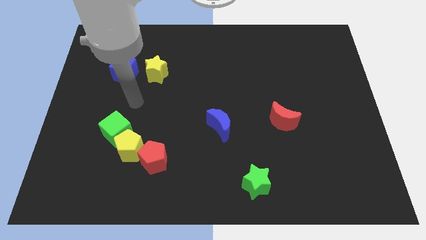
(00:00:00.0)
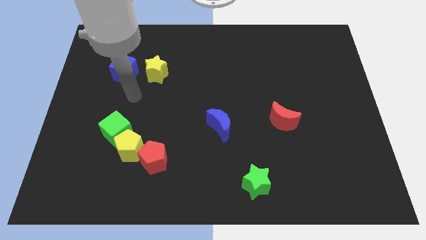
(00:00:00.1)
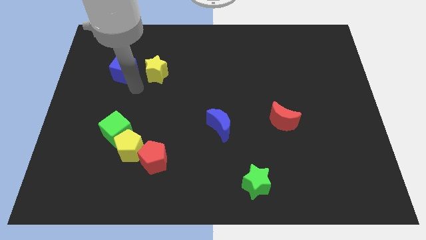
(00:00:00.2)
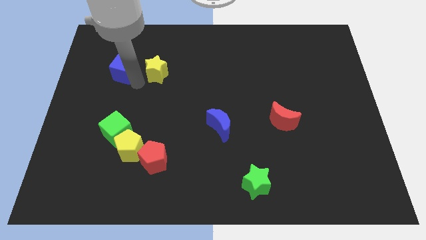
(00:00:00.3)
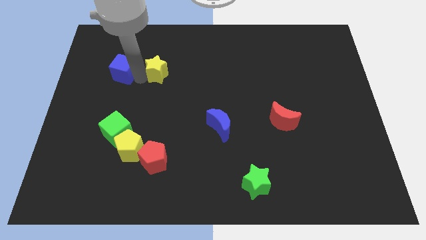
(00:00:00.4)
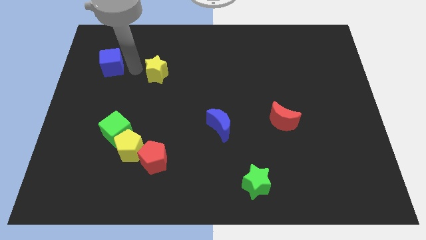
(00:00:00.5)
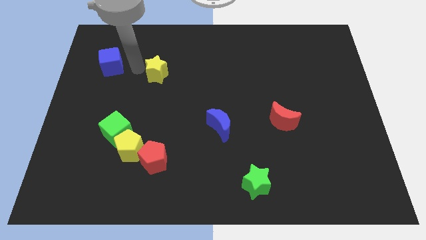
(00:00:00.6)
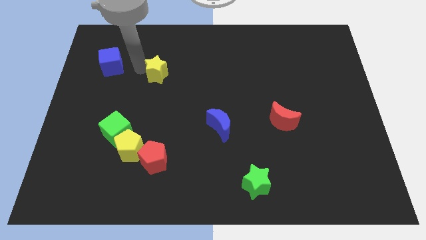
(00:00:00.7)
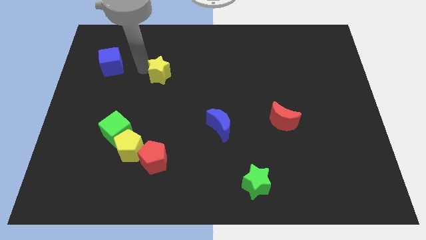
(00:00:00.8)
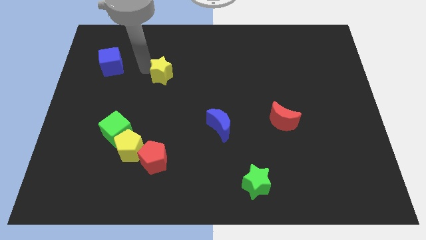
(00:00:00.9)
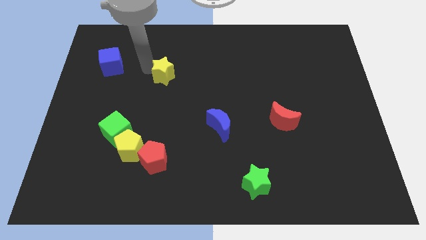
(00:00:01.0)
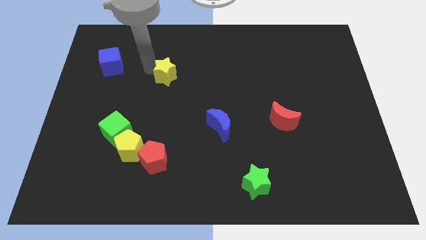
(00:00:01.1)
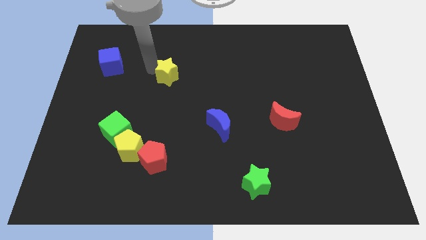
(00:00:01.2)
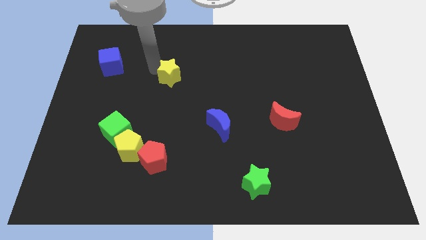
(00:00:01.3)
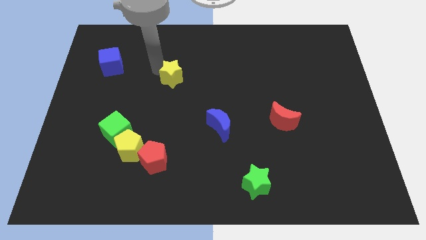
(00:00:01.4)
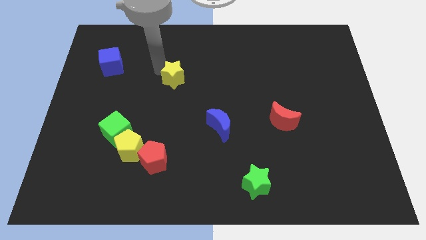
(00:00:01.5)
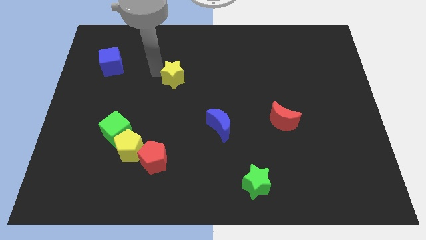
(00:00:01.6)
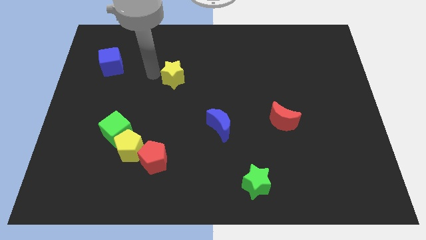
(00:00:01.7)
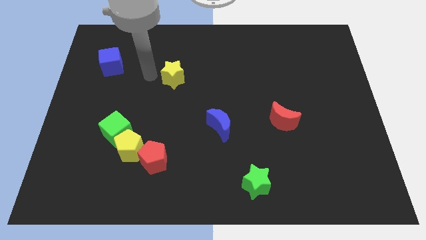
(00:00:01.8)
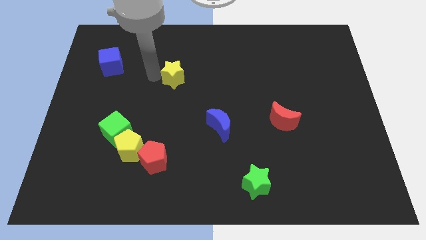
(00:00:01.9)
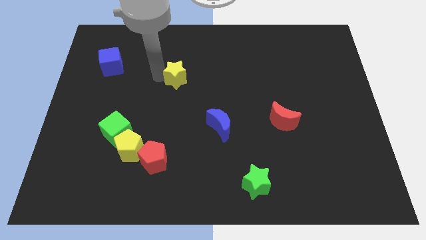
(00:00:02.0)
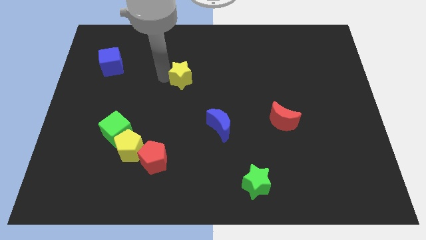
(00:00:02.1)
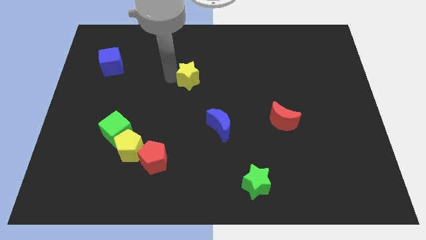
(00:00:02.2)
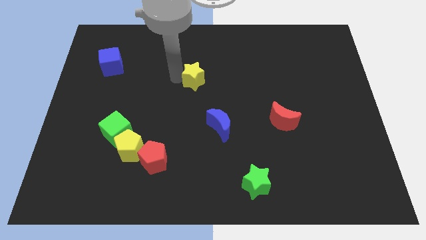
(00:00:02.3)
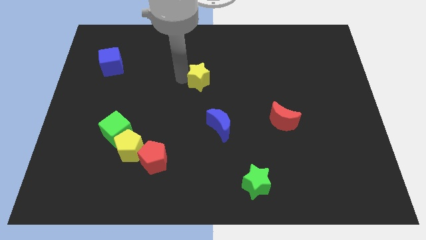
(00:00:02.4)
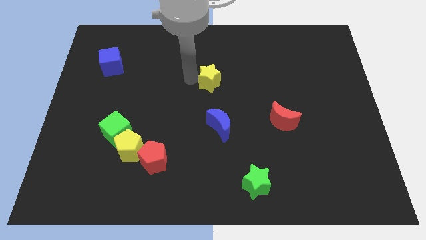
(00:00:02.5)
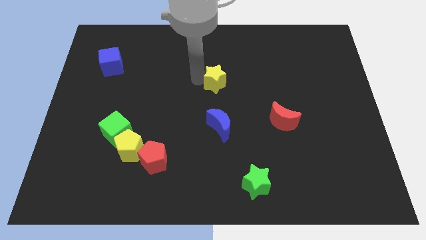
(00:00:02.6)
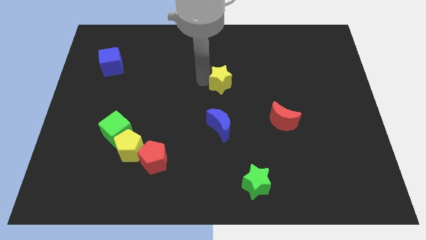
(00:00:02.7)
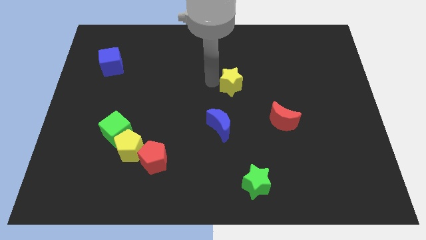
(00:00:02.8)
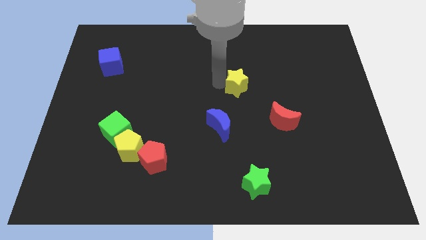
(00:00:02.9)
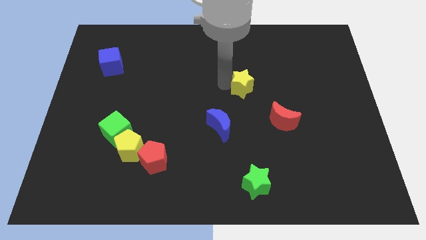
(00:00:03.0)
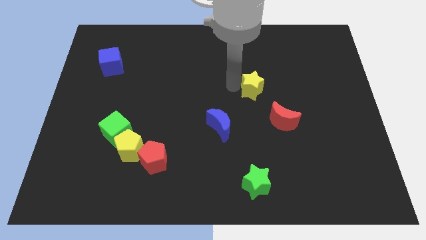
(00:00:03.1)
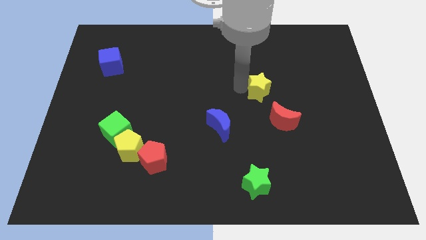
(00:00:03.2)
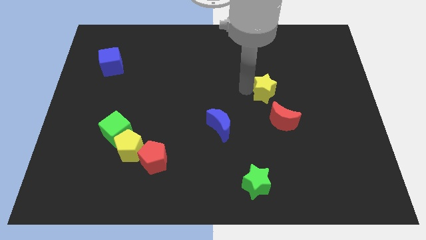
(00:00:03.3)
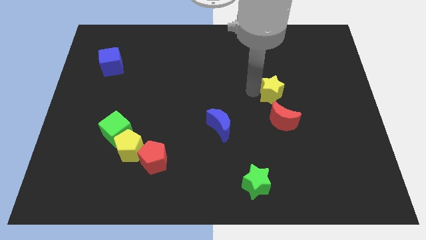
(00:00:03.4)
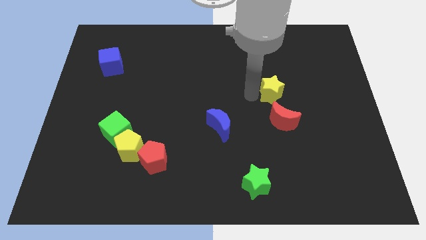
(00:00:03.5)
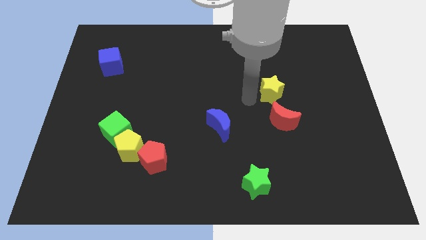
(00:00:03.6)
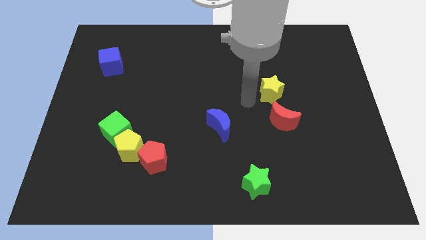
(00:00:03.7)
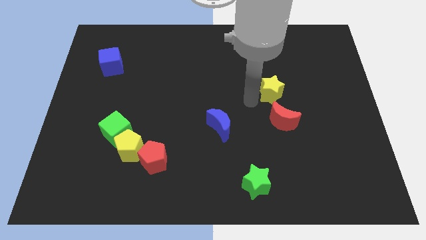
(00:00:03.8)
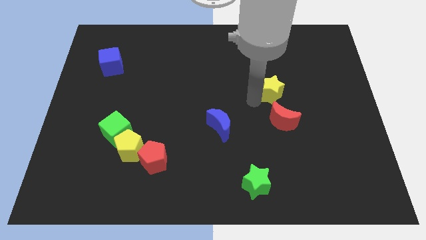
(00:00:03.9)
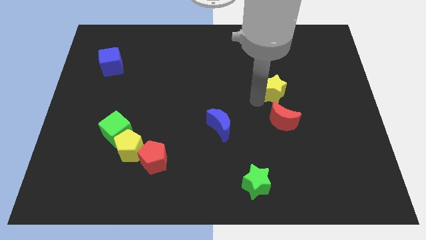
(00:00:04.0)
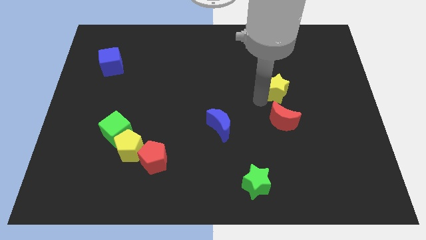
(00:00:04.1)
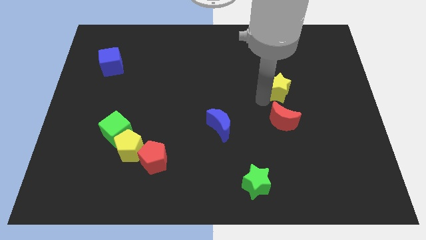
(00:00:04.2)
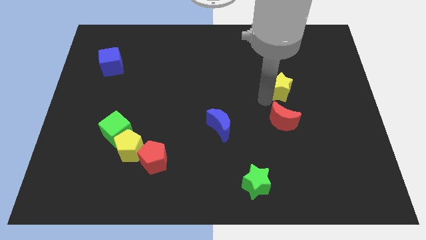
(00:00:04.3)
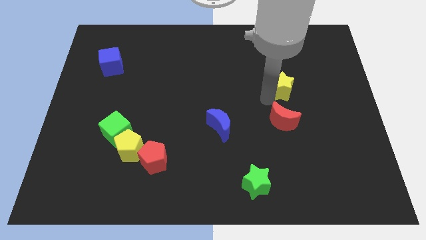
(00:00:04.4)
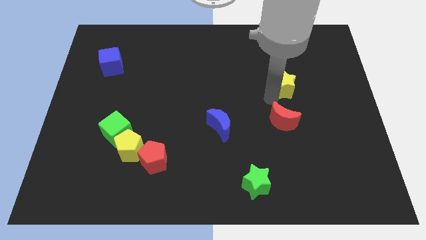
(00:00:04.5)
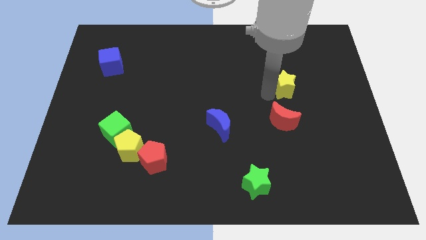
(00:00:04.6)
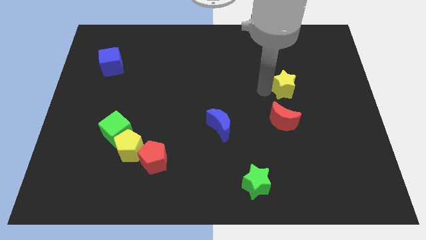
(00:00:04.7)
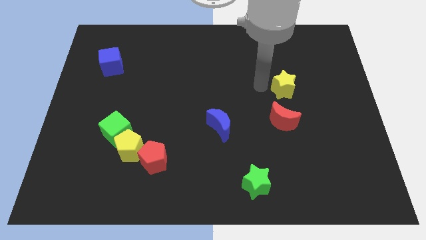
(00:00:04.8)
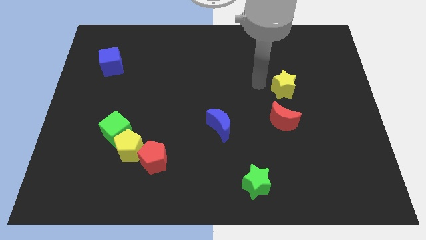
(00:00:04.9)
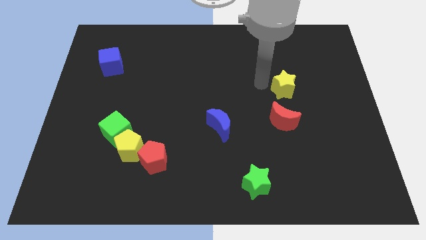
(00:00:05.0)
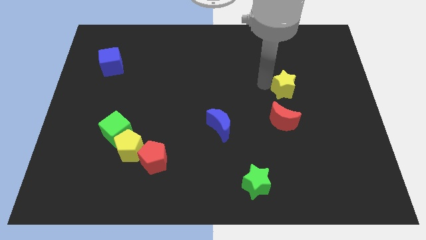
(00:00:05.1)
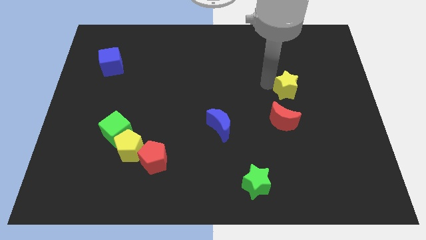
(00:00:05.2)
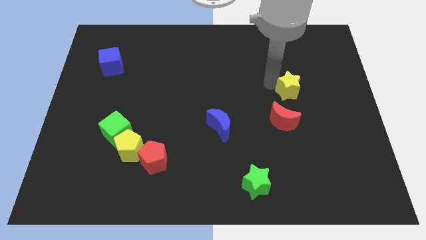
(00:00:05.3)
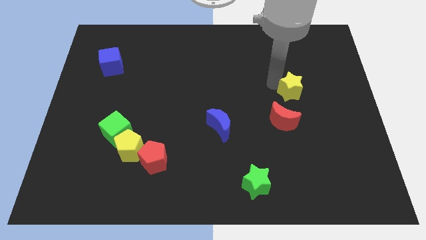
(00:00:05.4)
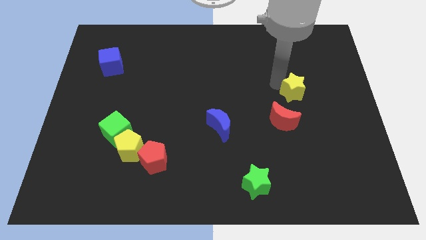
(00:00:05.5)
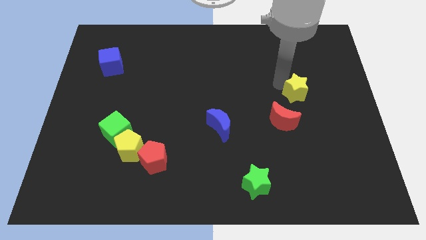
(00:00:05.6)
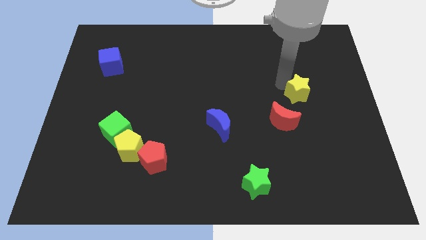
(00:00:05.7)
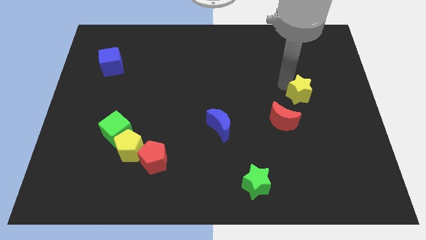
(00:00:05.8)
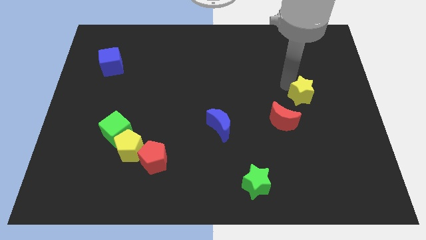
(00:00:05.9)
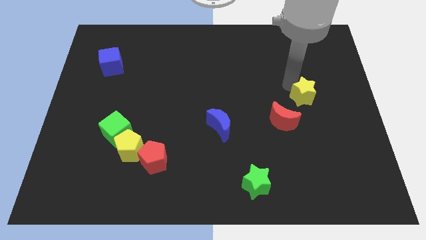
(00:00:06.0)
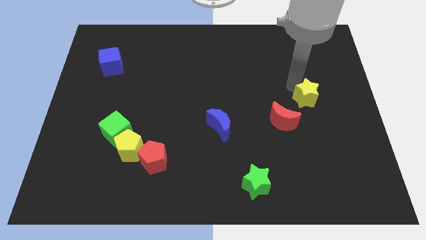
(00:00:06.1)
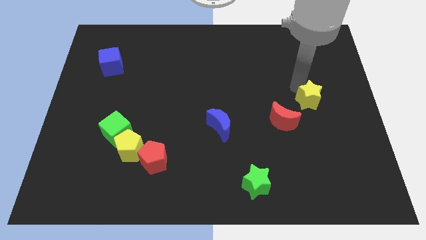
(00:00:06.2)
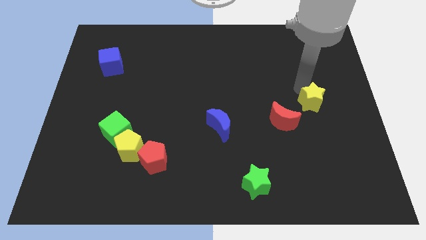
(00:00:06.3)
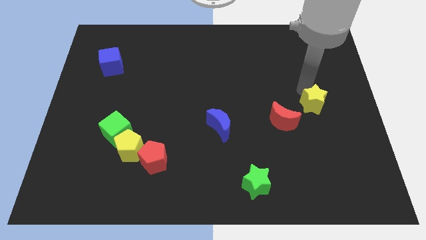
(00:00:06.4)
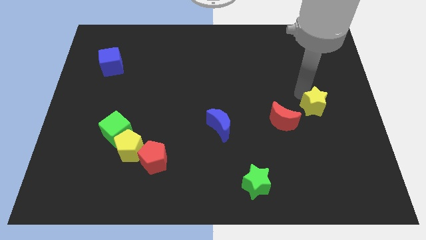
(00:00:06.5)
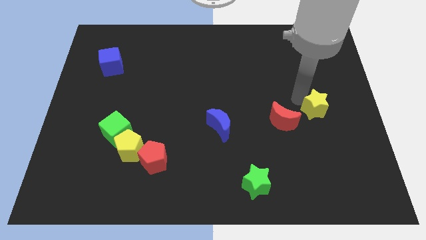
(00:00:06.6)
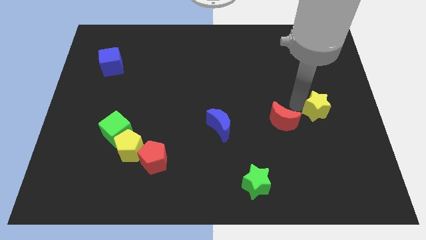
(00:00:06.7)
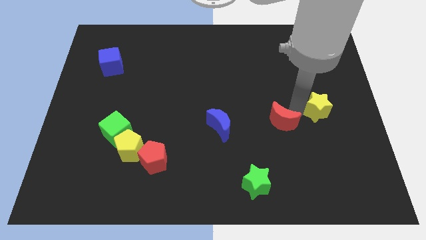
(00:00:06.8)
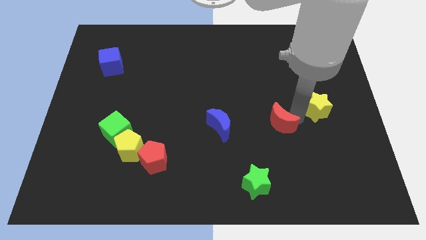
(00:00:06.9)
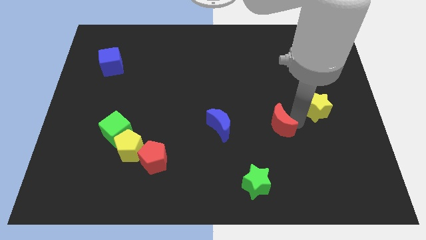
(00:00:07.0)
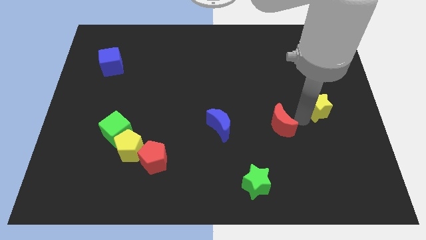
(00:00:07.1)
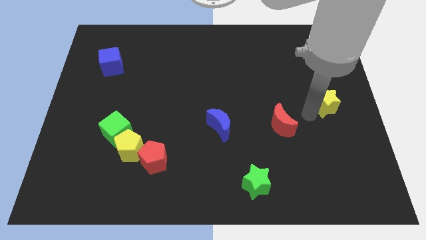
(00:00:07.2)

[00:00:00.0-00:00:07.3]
push the yellow star to the right side of the board
